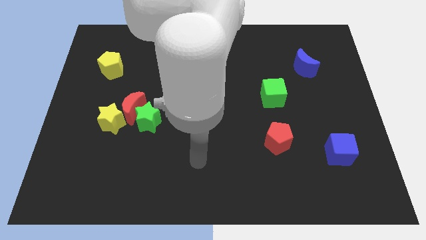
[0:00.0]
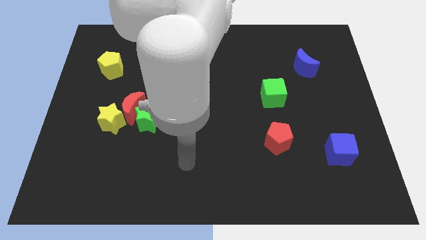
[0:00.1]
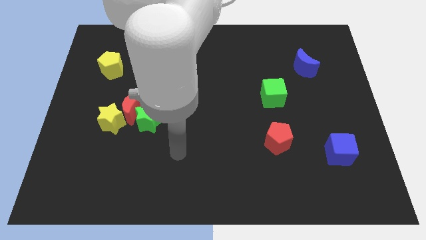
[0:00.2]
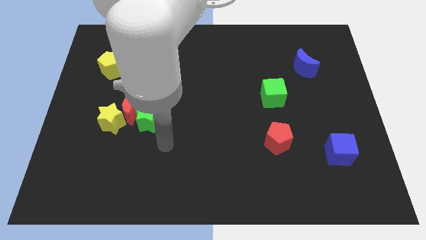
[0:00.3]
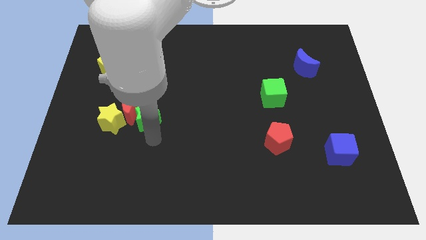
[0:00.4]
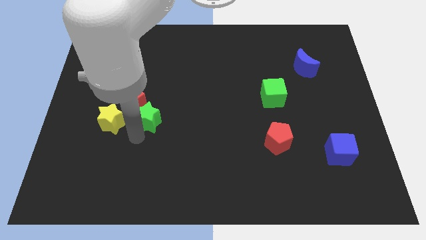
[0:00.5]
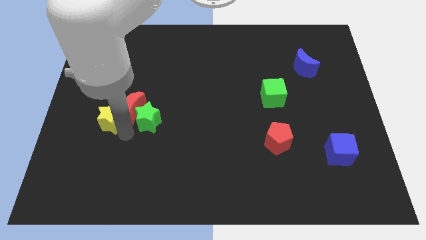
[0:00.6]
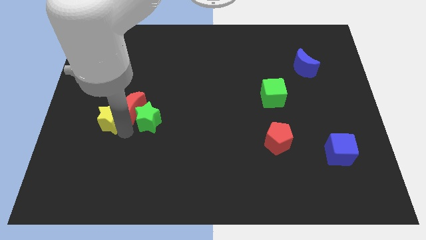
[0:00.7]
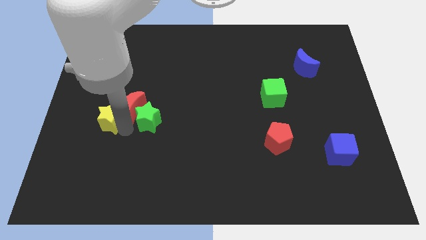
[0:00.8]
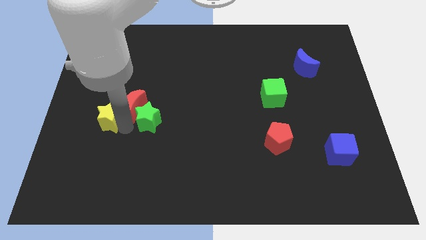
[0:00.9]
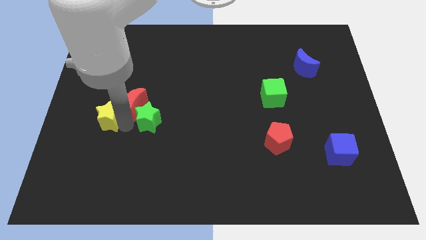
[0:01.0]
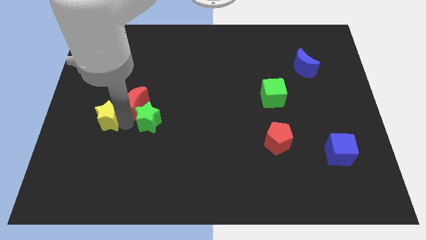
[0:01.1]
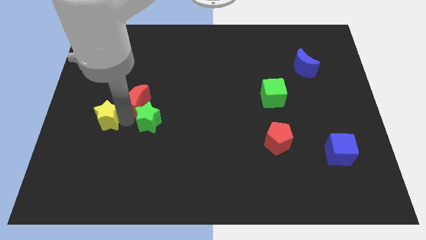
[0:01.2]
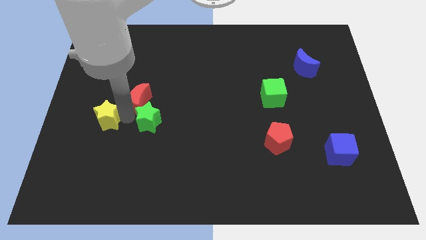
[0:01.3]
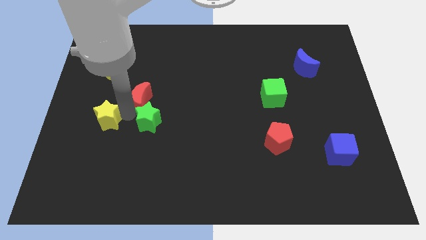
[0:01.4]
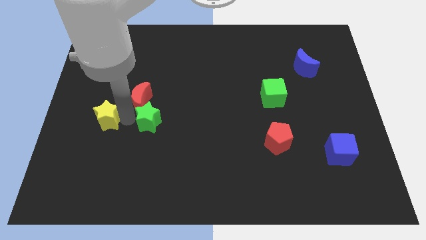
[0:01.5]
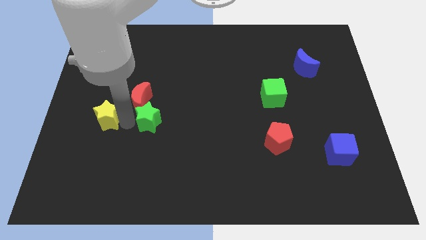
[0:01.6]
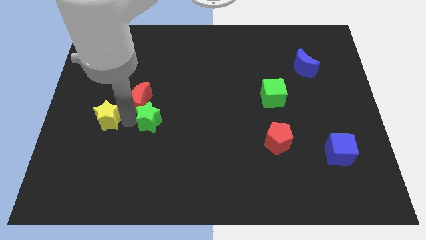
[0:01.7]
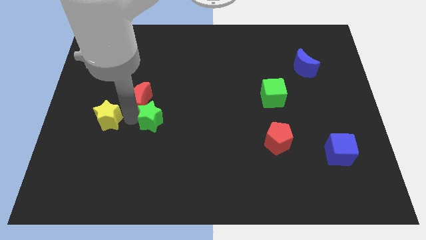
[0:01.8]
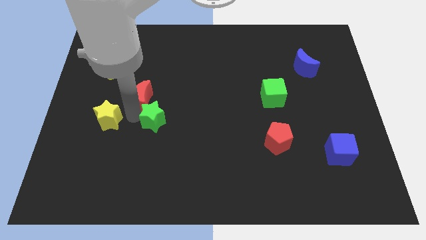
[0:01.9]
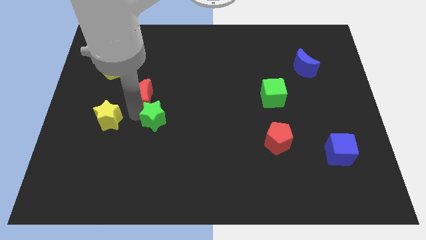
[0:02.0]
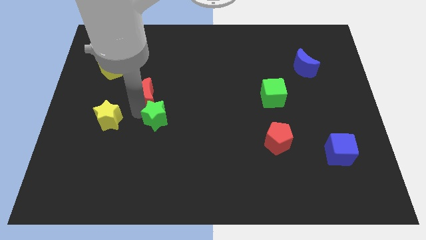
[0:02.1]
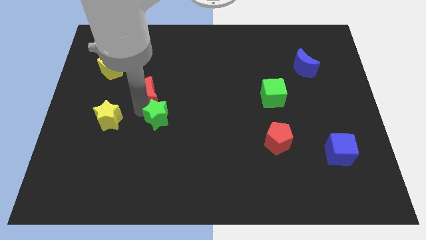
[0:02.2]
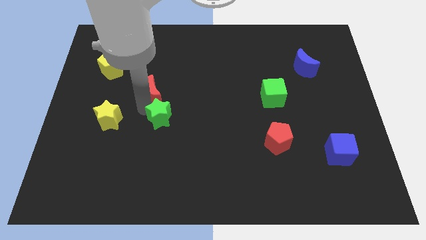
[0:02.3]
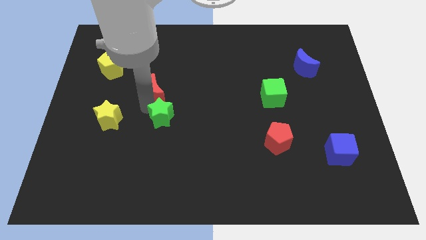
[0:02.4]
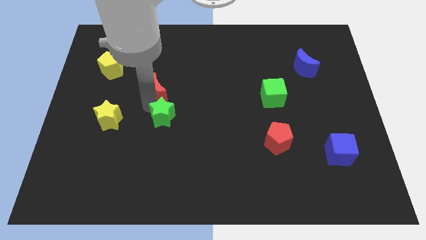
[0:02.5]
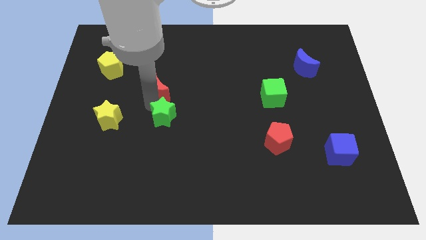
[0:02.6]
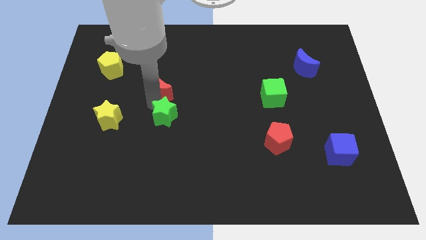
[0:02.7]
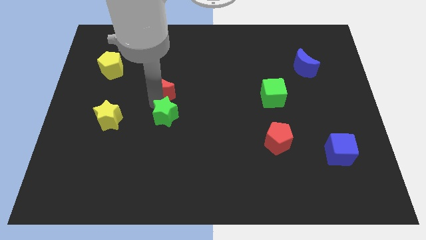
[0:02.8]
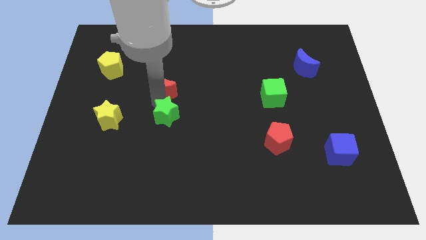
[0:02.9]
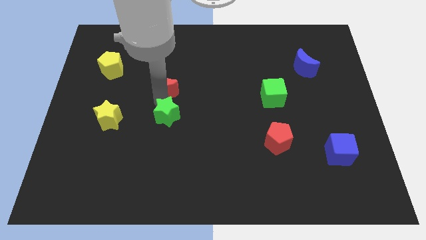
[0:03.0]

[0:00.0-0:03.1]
pull the red moon apart from the green star and yellow star

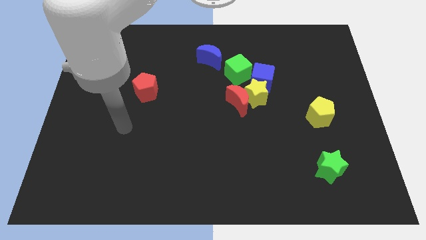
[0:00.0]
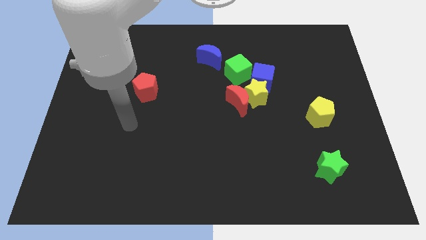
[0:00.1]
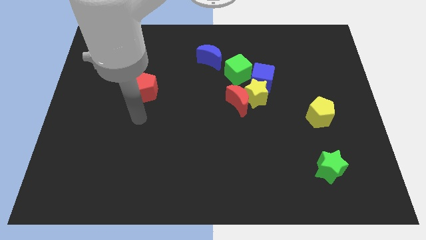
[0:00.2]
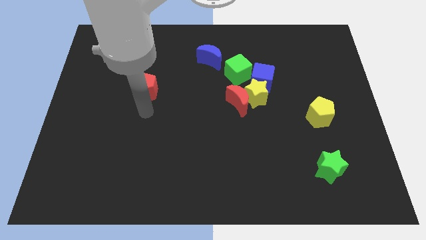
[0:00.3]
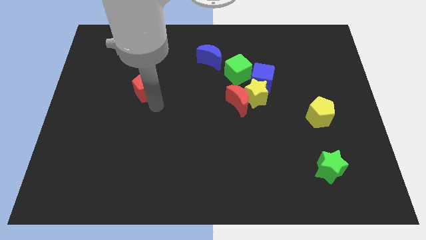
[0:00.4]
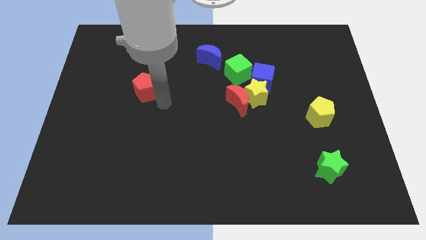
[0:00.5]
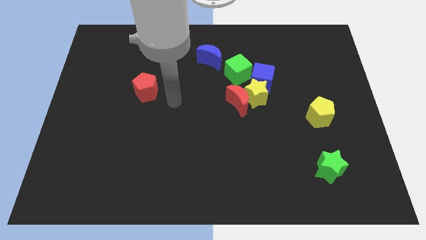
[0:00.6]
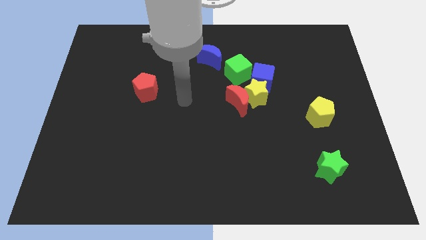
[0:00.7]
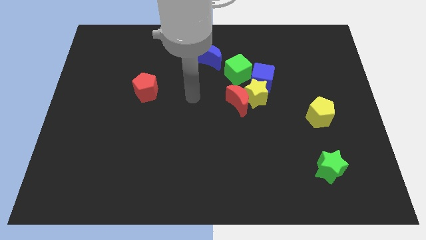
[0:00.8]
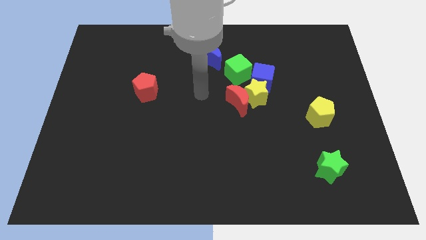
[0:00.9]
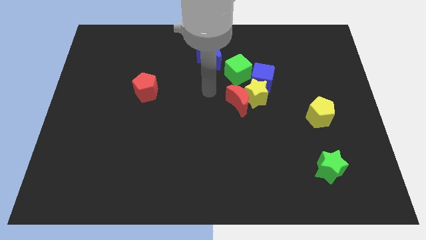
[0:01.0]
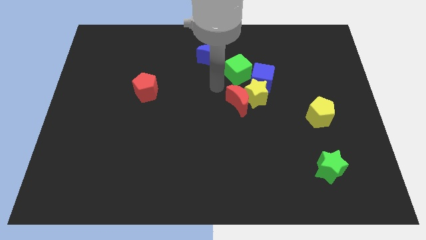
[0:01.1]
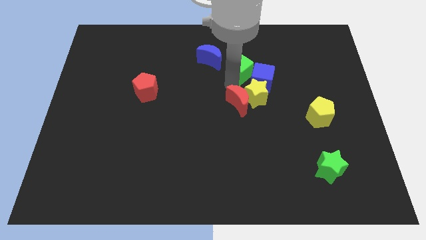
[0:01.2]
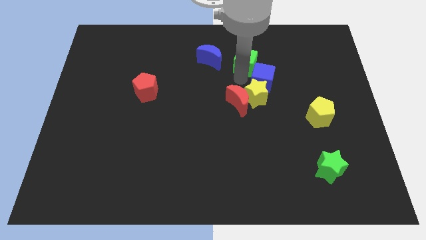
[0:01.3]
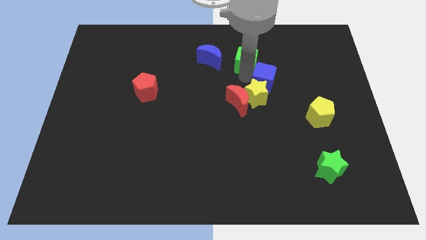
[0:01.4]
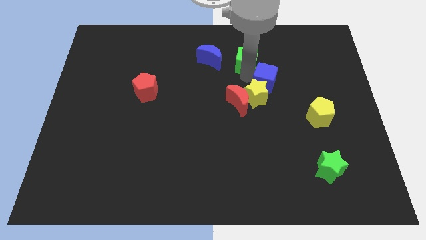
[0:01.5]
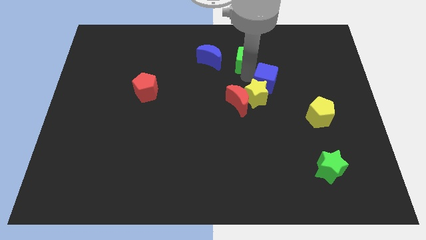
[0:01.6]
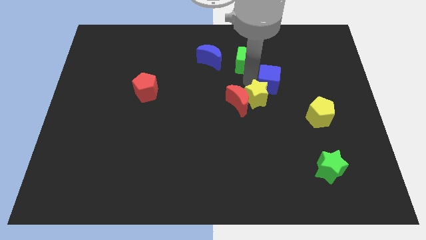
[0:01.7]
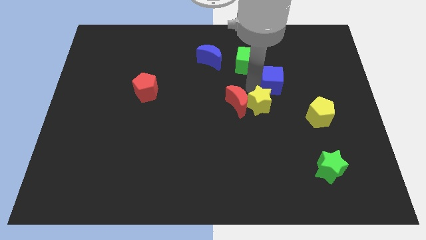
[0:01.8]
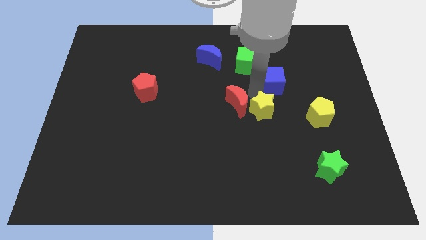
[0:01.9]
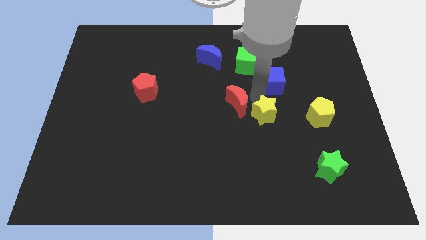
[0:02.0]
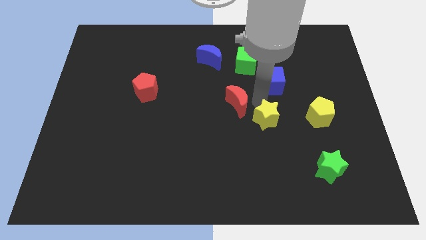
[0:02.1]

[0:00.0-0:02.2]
pull the yellow star apart from the clump

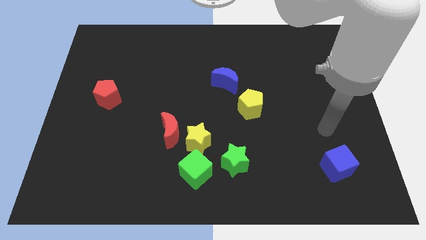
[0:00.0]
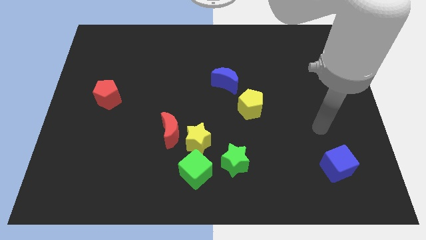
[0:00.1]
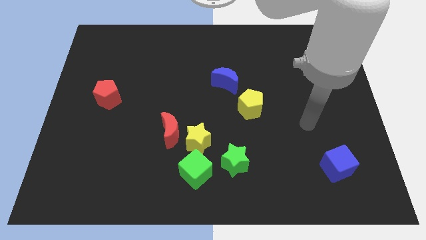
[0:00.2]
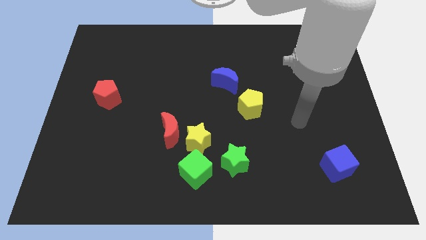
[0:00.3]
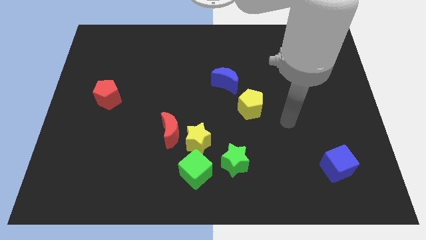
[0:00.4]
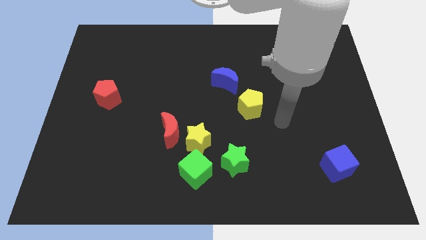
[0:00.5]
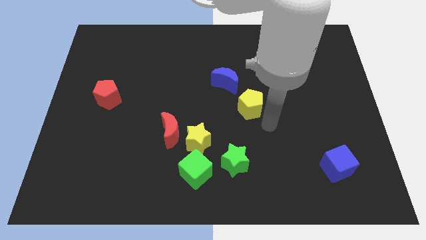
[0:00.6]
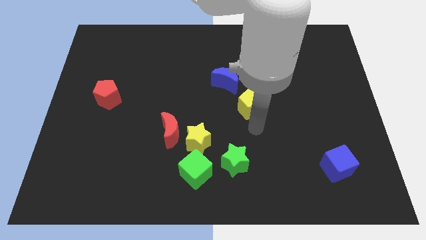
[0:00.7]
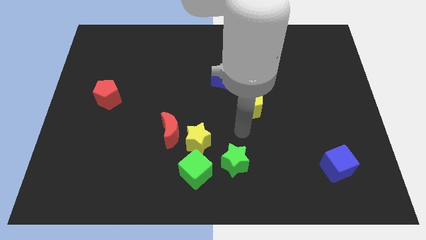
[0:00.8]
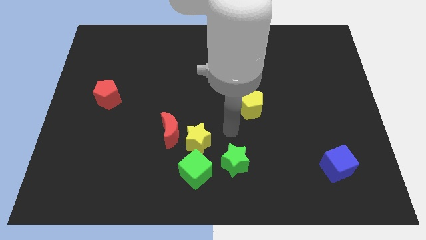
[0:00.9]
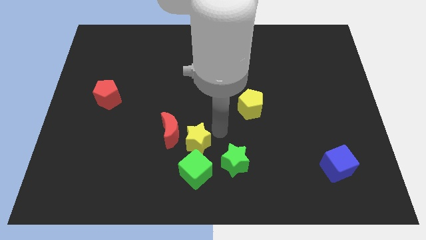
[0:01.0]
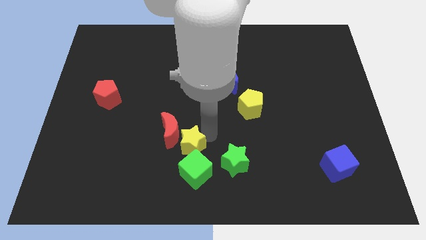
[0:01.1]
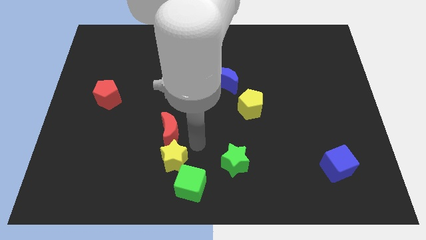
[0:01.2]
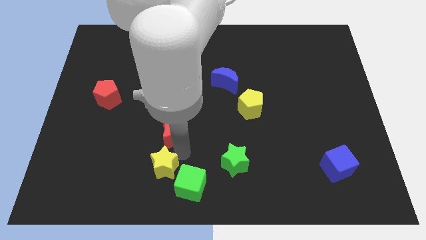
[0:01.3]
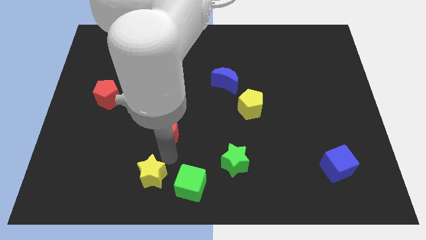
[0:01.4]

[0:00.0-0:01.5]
separate the red moon from the yellow star

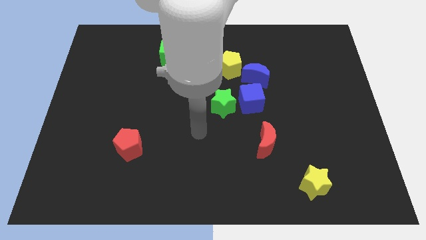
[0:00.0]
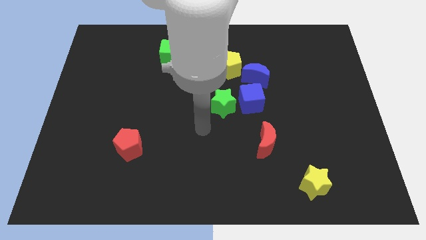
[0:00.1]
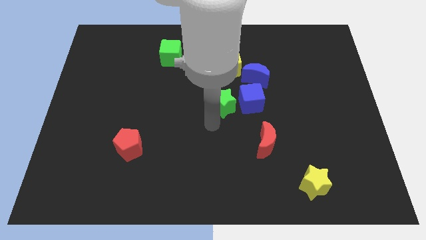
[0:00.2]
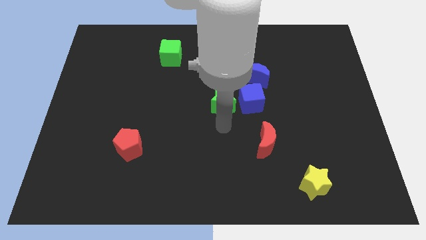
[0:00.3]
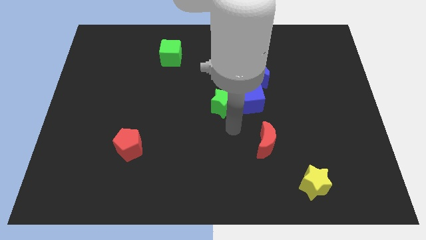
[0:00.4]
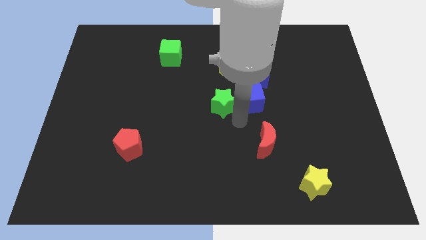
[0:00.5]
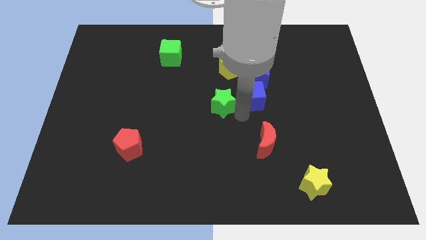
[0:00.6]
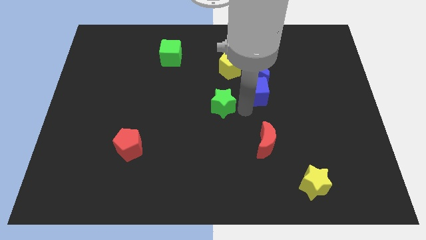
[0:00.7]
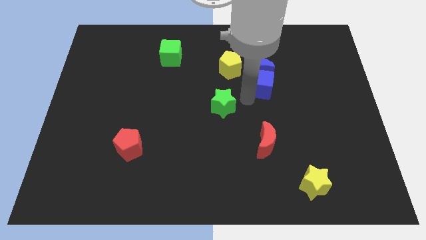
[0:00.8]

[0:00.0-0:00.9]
move the green star away from the blue cube

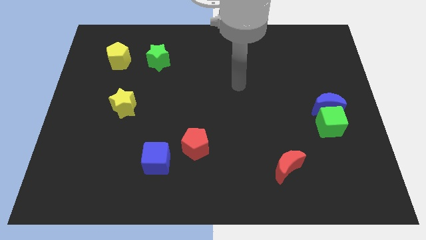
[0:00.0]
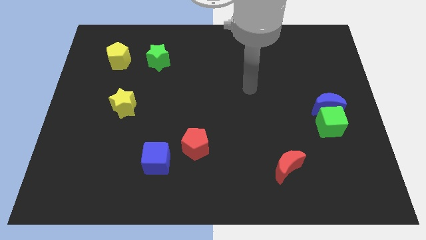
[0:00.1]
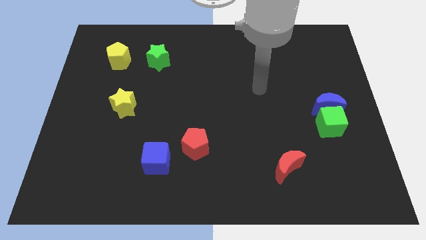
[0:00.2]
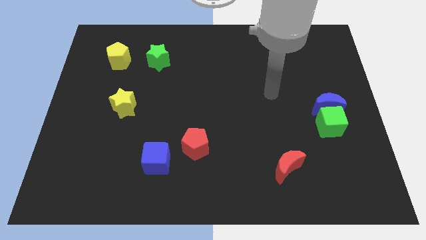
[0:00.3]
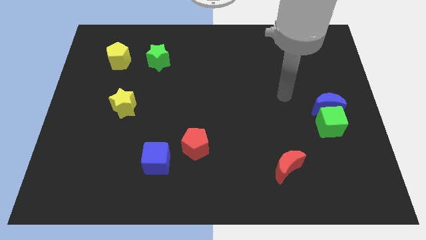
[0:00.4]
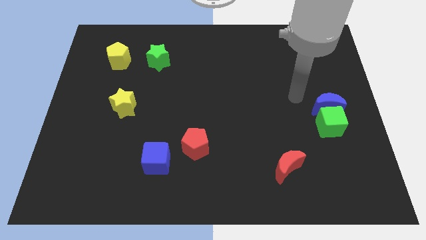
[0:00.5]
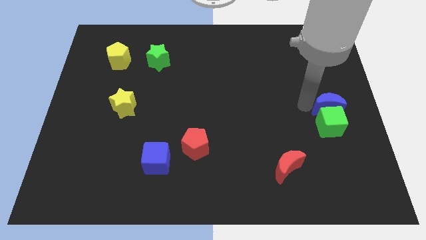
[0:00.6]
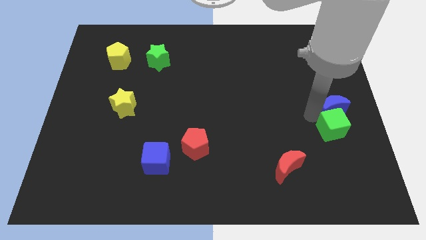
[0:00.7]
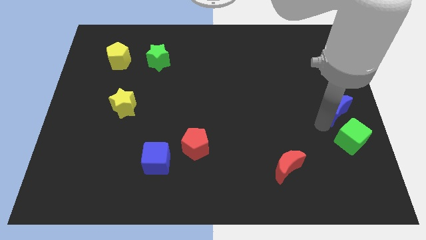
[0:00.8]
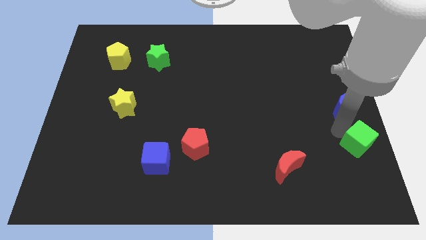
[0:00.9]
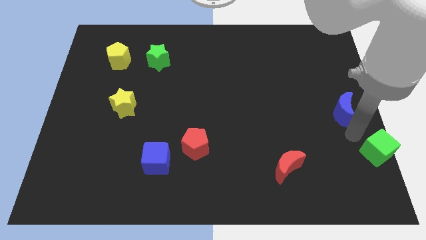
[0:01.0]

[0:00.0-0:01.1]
pull the blue moon apart from the green cube

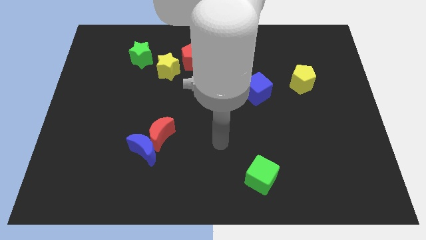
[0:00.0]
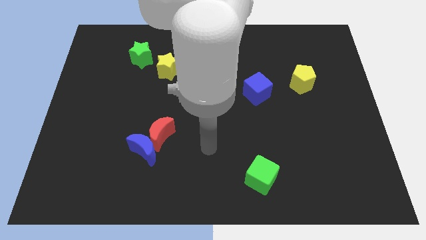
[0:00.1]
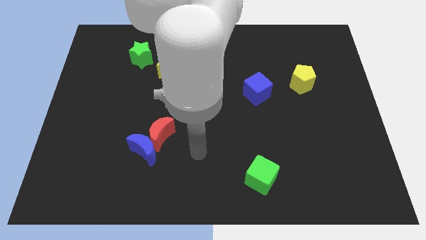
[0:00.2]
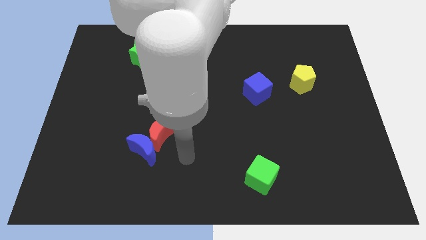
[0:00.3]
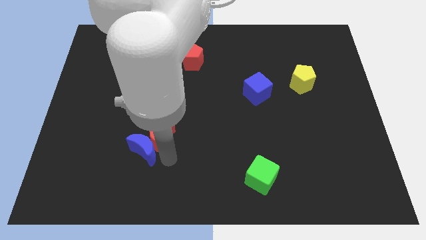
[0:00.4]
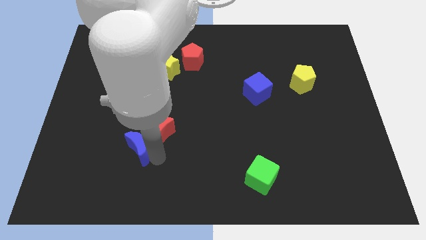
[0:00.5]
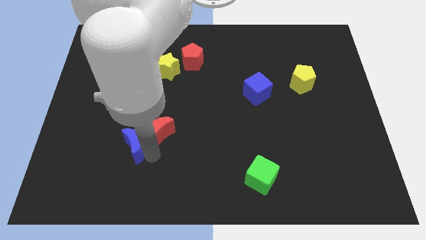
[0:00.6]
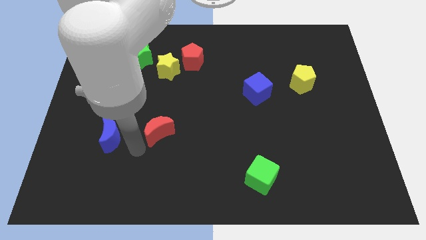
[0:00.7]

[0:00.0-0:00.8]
move the red moon away from the blue moon
